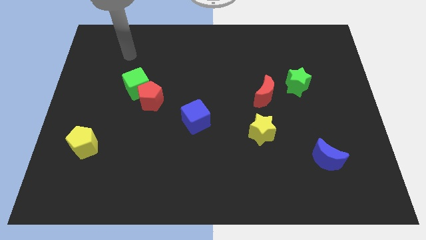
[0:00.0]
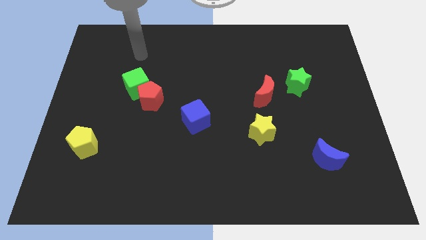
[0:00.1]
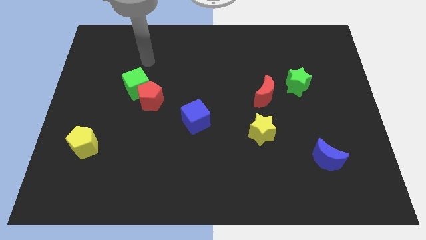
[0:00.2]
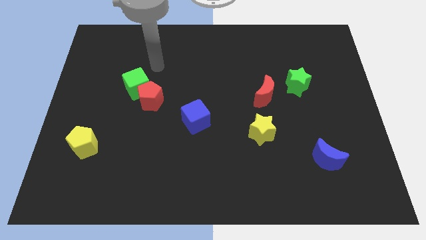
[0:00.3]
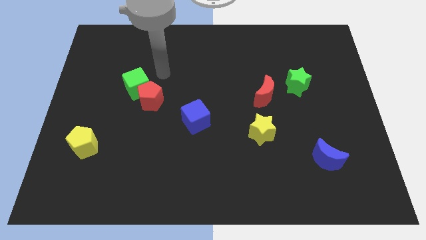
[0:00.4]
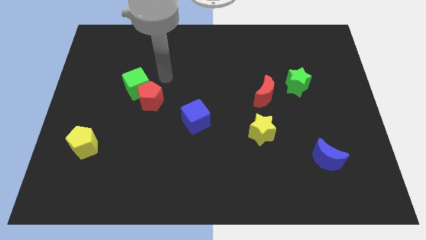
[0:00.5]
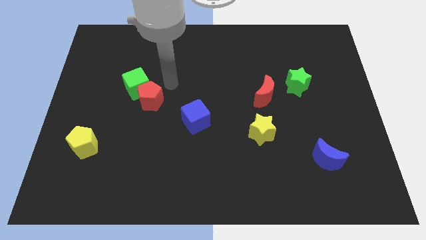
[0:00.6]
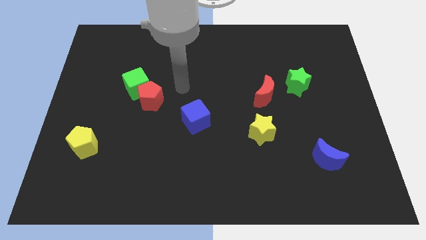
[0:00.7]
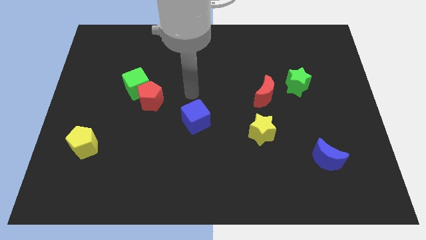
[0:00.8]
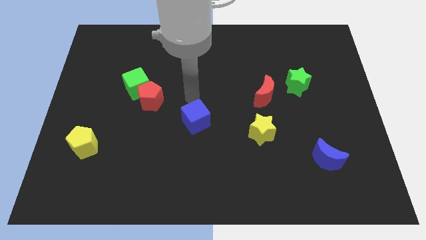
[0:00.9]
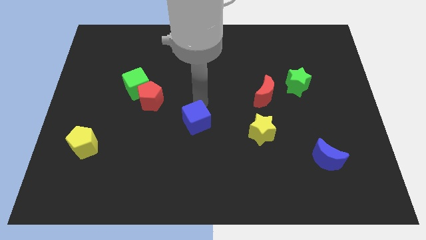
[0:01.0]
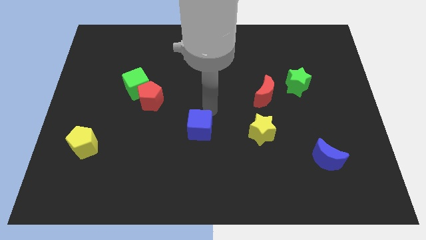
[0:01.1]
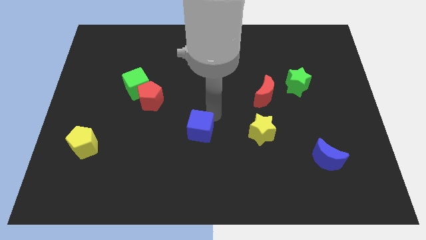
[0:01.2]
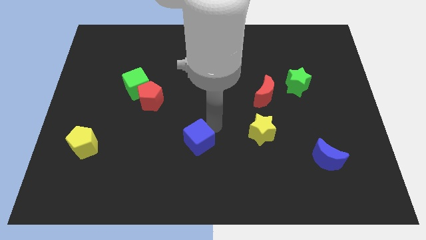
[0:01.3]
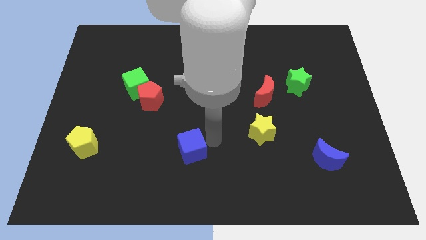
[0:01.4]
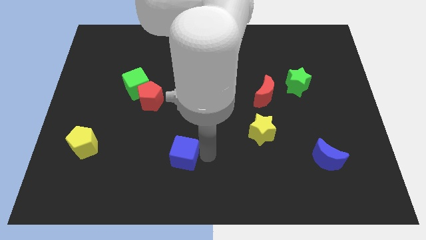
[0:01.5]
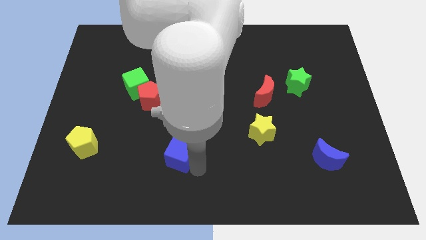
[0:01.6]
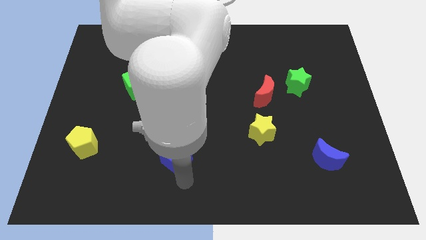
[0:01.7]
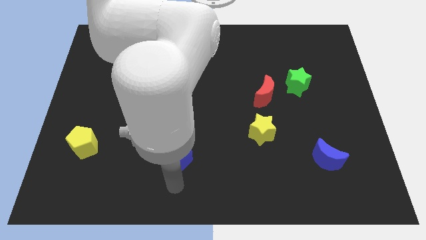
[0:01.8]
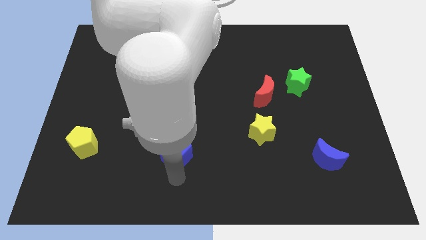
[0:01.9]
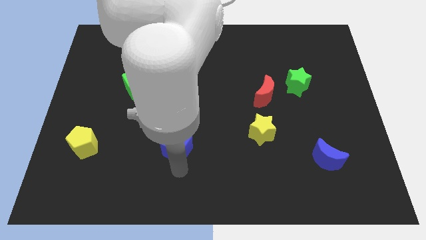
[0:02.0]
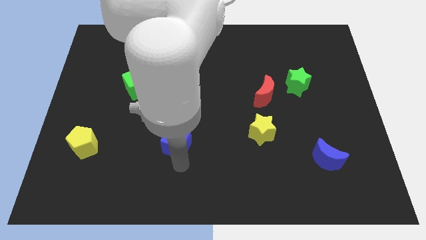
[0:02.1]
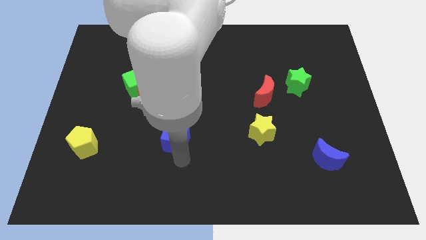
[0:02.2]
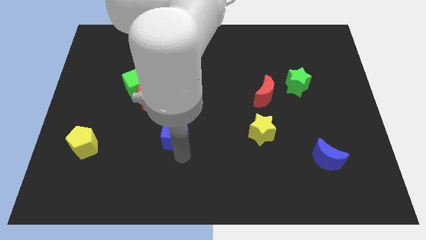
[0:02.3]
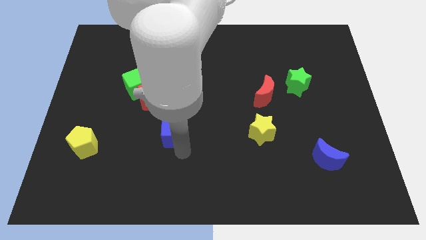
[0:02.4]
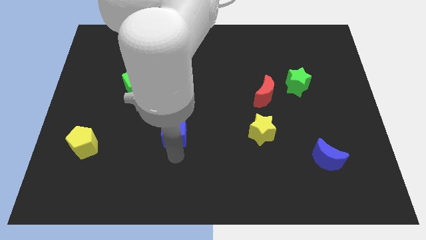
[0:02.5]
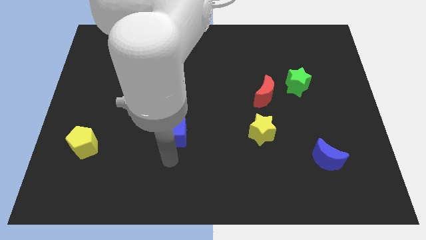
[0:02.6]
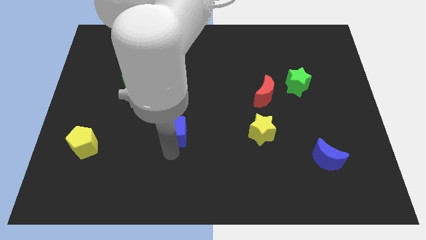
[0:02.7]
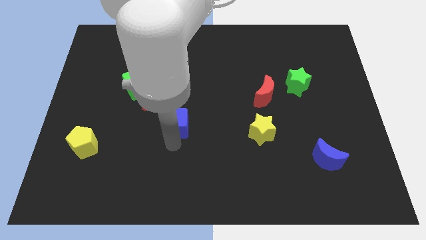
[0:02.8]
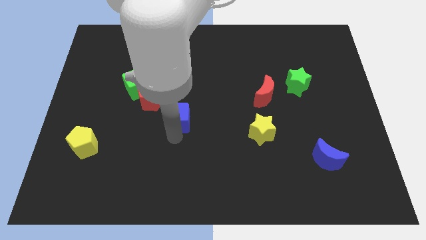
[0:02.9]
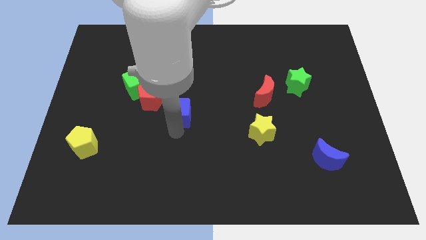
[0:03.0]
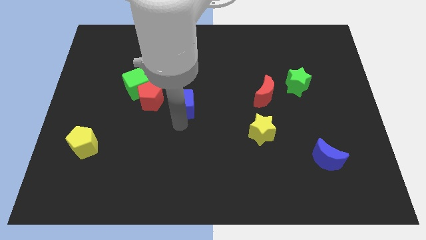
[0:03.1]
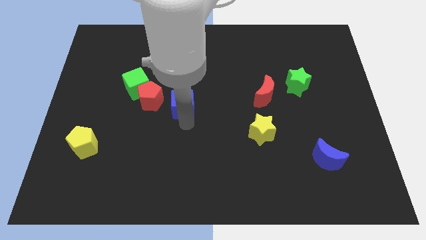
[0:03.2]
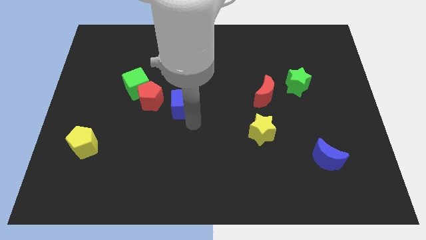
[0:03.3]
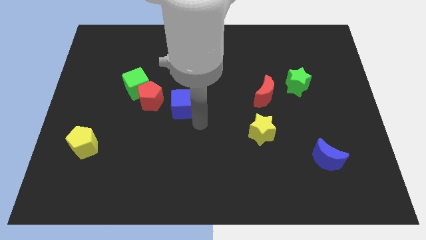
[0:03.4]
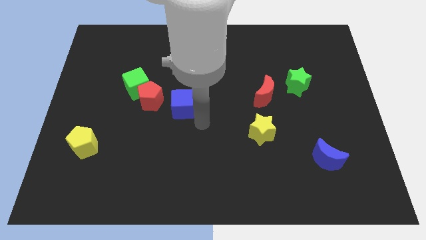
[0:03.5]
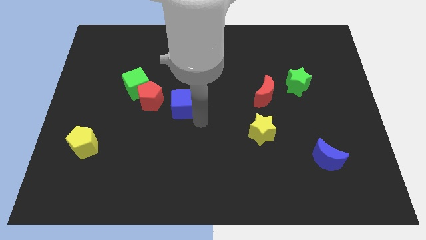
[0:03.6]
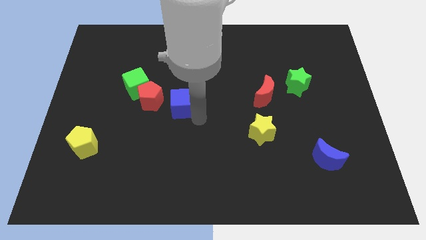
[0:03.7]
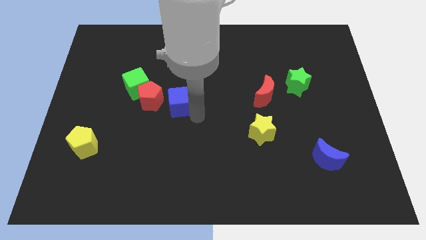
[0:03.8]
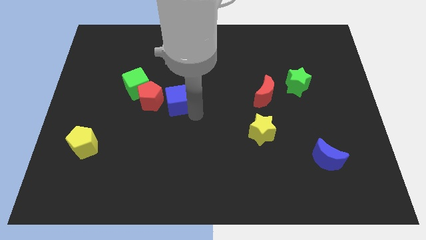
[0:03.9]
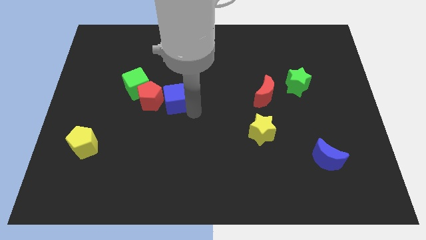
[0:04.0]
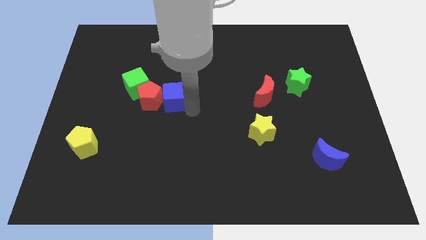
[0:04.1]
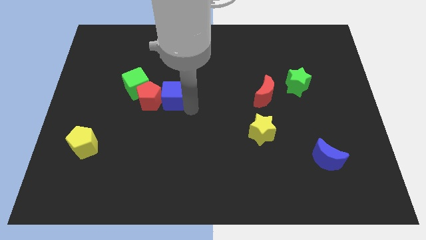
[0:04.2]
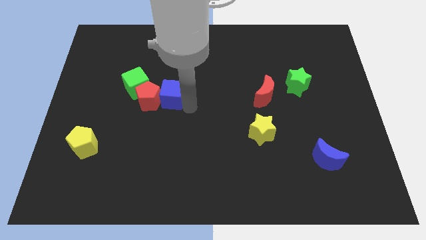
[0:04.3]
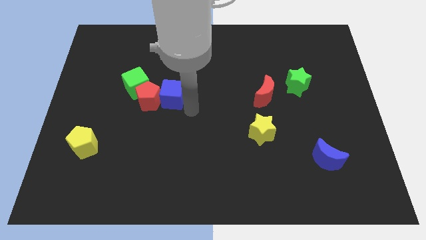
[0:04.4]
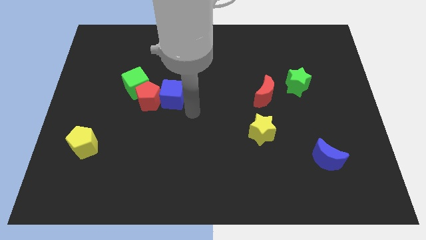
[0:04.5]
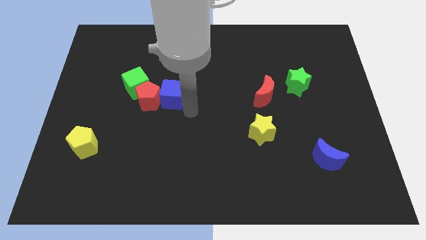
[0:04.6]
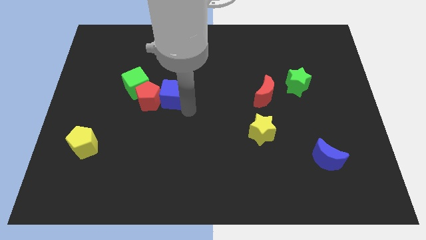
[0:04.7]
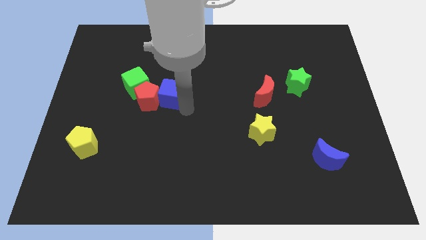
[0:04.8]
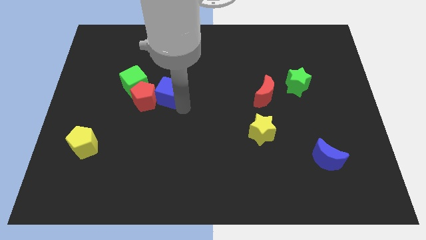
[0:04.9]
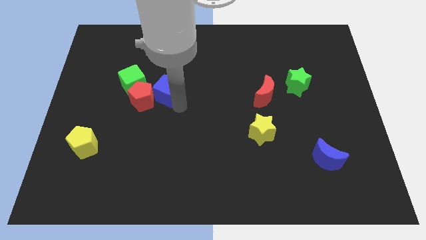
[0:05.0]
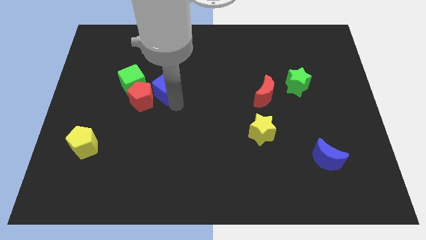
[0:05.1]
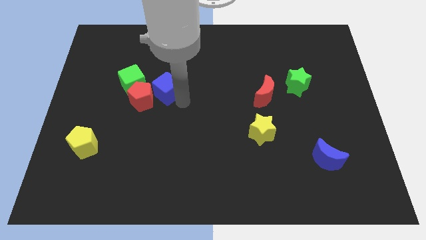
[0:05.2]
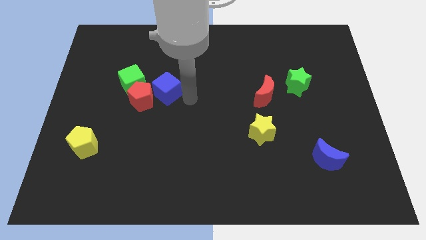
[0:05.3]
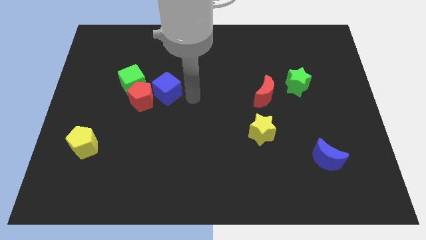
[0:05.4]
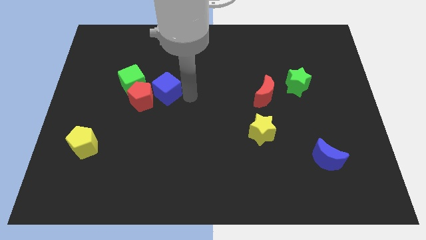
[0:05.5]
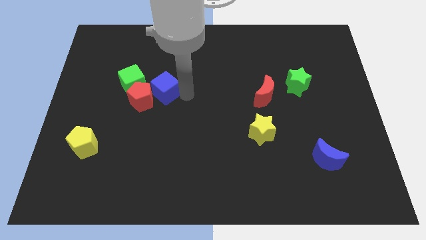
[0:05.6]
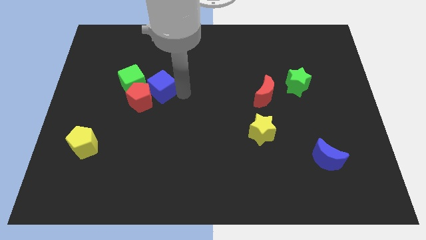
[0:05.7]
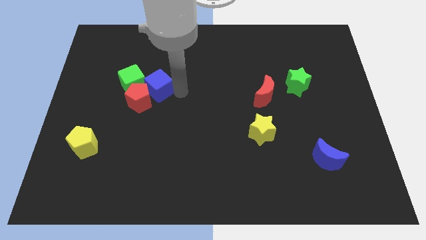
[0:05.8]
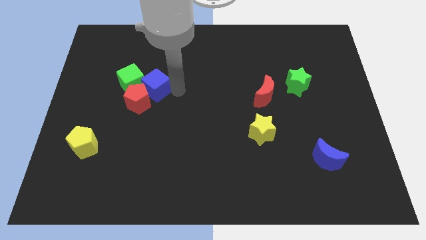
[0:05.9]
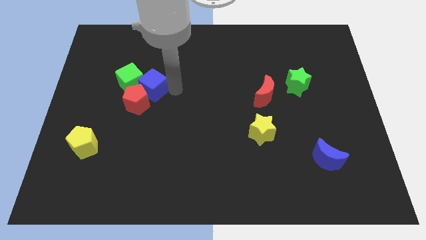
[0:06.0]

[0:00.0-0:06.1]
push the blue cube close to the green cube

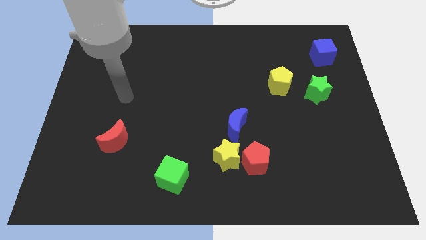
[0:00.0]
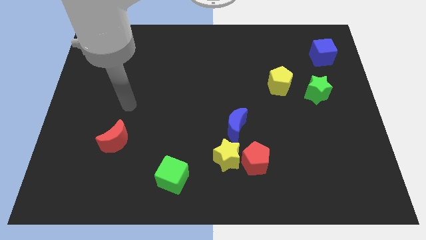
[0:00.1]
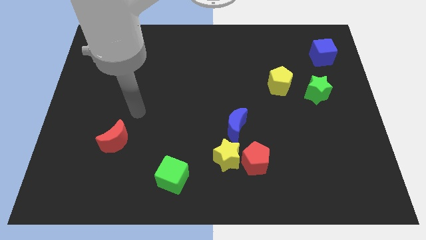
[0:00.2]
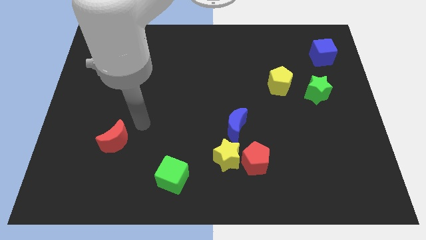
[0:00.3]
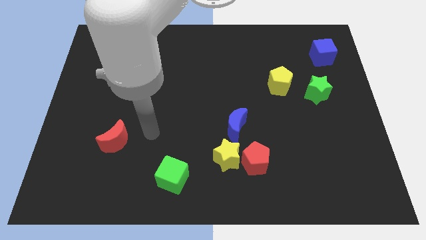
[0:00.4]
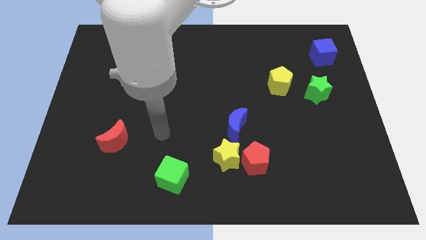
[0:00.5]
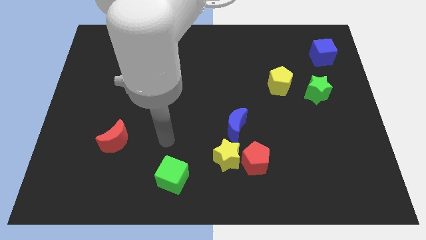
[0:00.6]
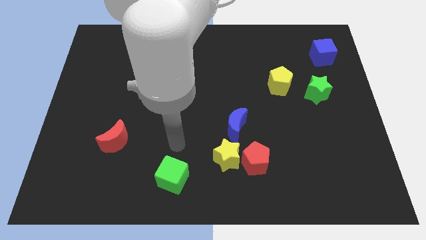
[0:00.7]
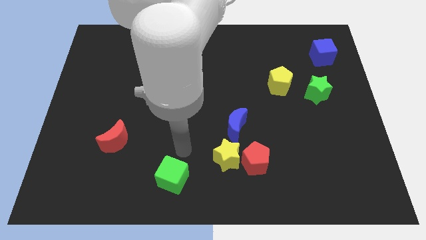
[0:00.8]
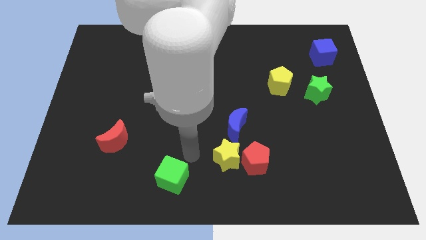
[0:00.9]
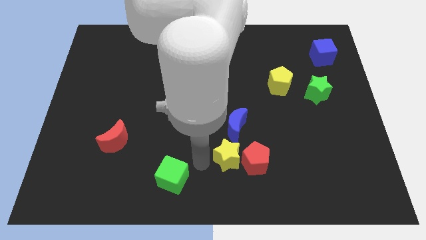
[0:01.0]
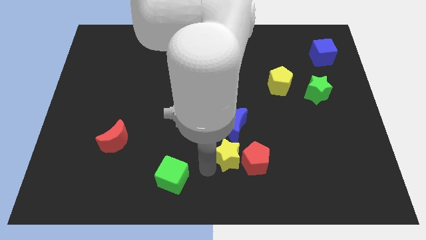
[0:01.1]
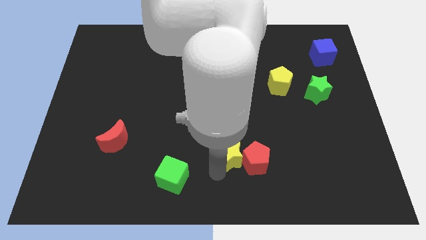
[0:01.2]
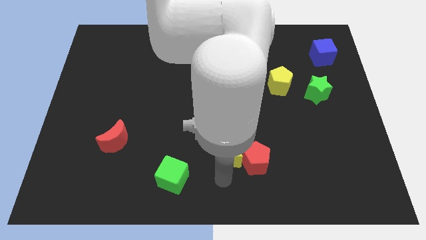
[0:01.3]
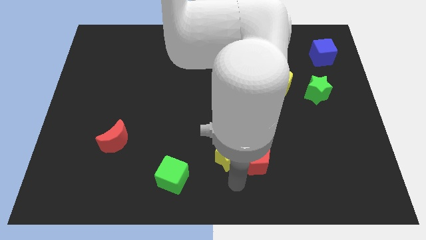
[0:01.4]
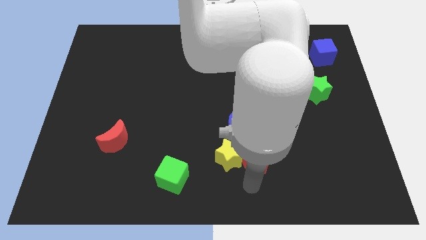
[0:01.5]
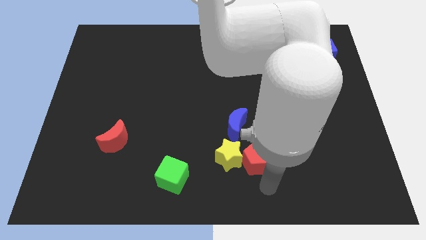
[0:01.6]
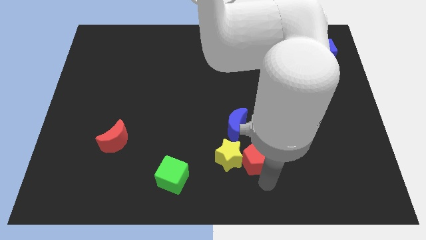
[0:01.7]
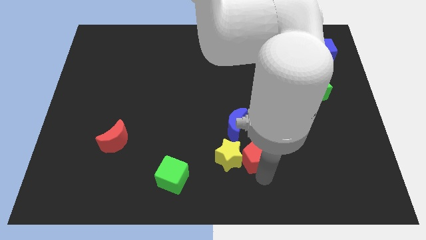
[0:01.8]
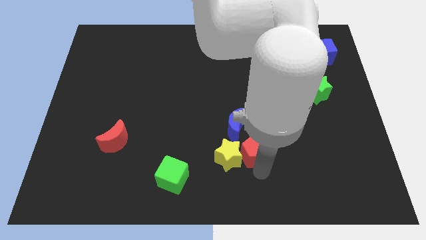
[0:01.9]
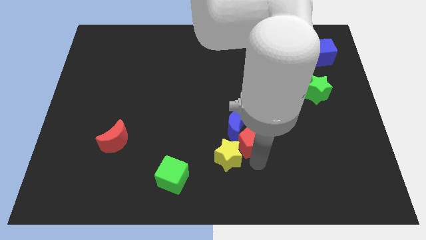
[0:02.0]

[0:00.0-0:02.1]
move the red pentagon to the blue moon
